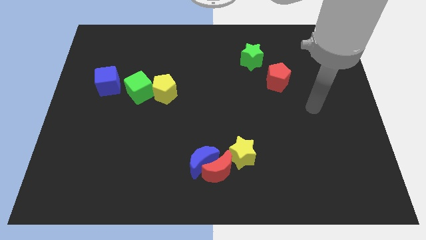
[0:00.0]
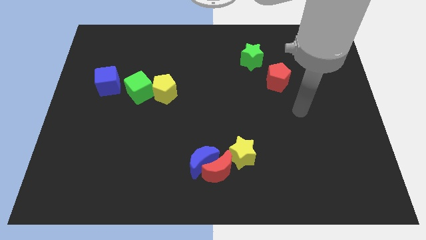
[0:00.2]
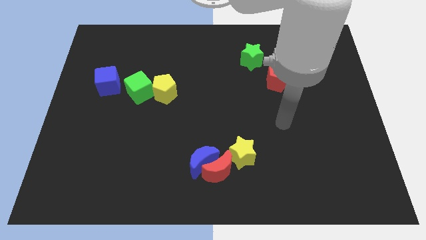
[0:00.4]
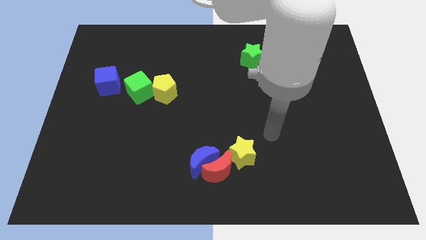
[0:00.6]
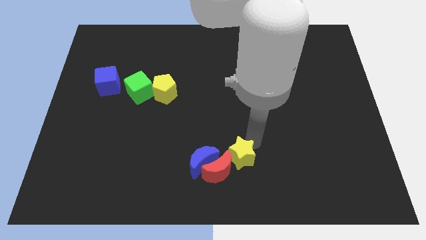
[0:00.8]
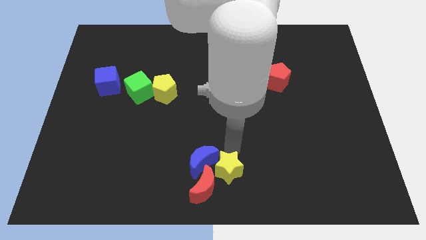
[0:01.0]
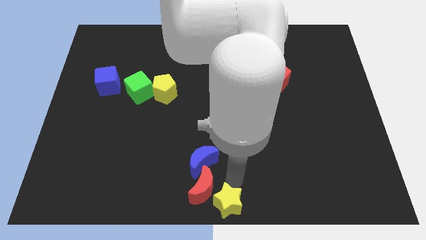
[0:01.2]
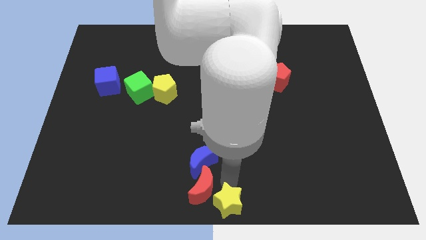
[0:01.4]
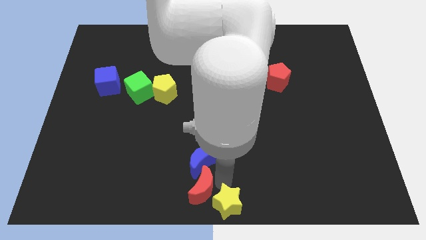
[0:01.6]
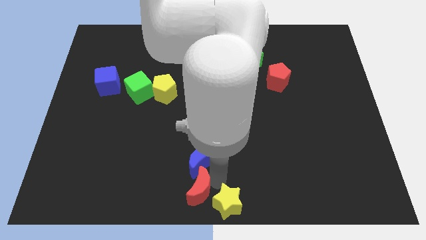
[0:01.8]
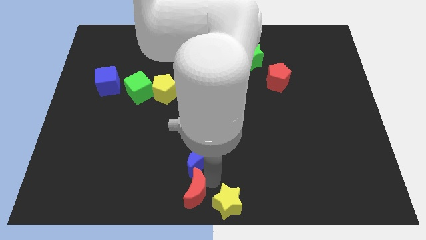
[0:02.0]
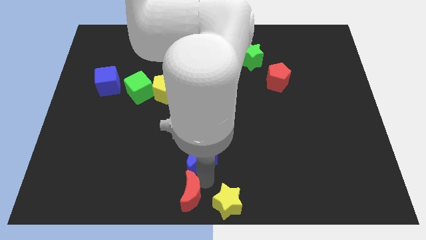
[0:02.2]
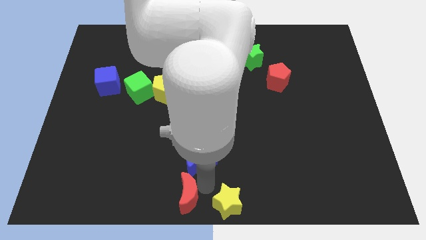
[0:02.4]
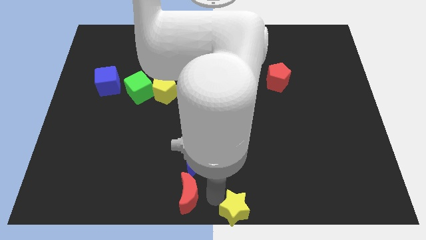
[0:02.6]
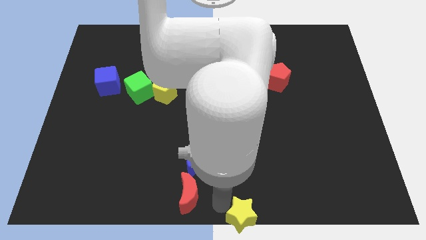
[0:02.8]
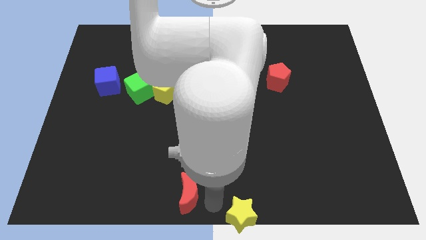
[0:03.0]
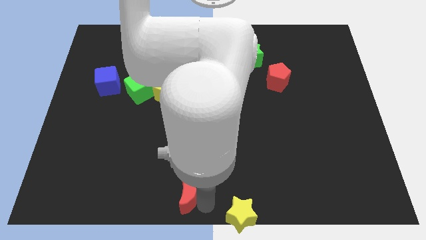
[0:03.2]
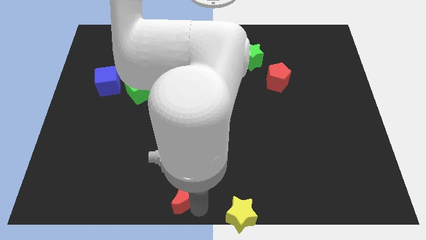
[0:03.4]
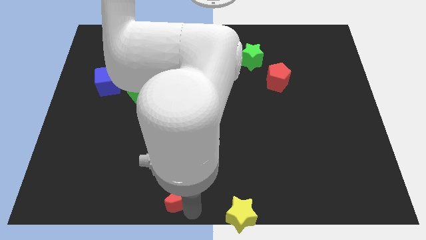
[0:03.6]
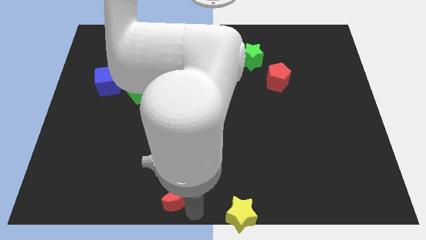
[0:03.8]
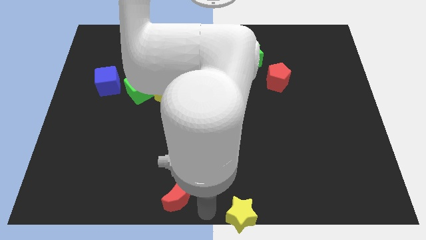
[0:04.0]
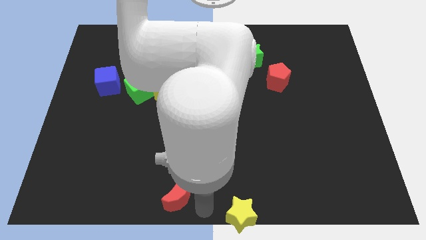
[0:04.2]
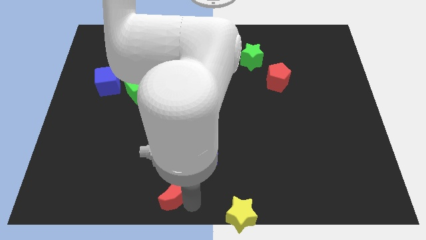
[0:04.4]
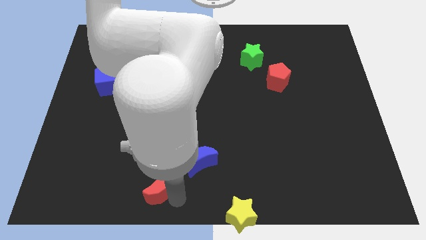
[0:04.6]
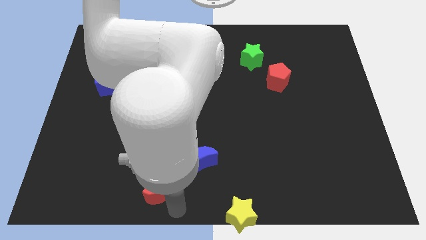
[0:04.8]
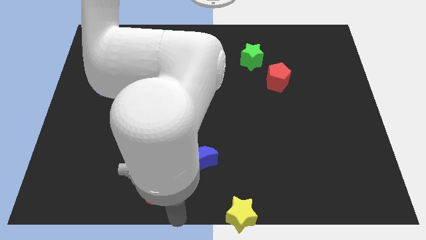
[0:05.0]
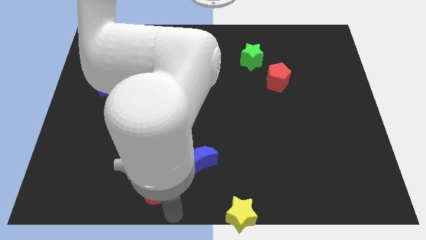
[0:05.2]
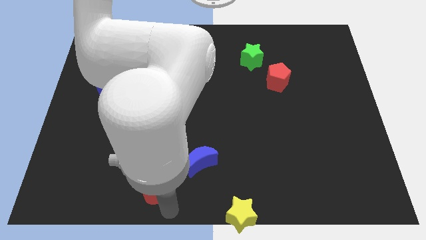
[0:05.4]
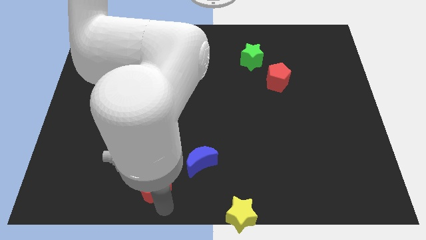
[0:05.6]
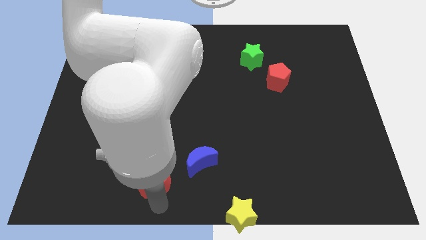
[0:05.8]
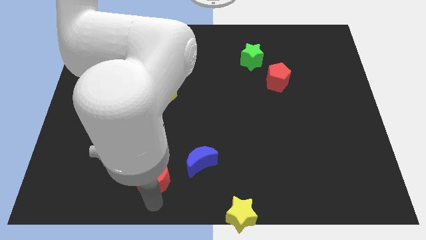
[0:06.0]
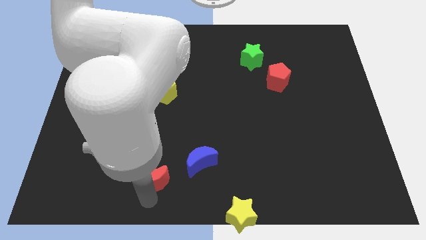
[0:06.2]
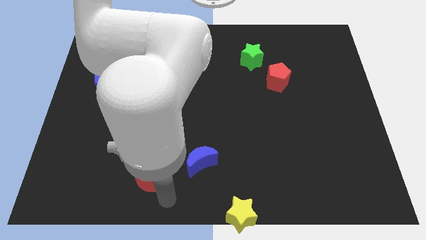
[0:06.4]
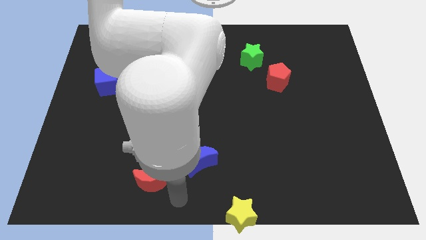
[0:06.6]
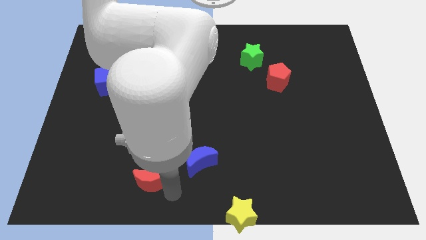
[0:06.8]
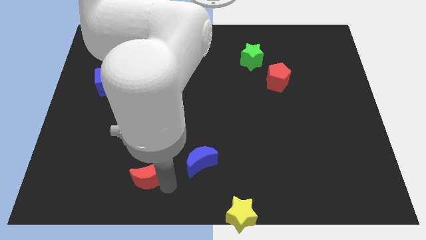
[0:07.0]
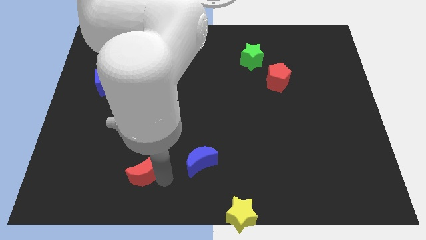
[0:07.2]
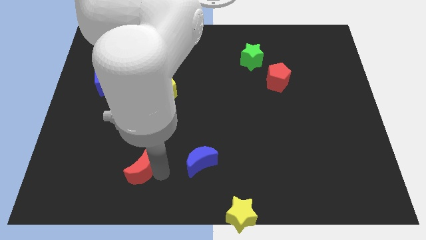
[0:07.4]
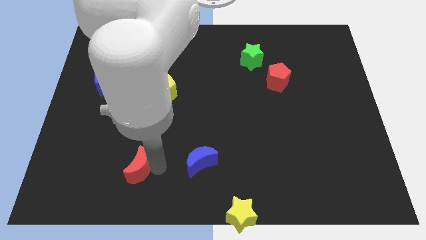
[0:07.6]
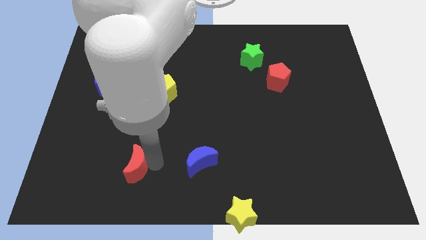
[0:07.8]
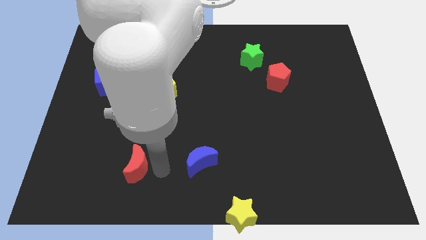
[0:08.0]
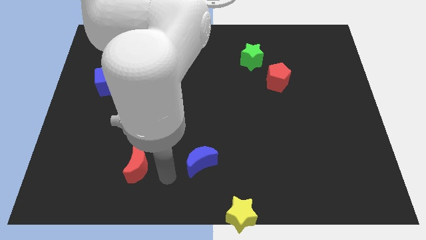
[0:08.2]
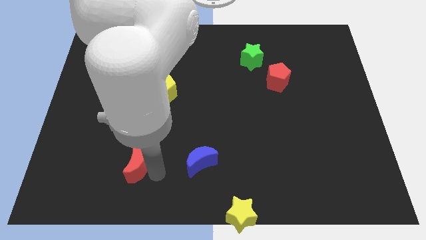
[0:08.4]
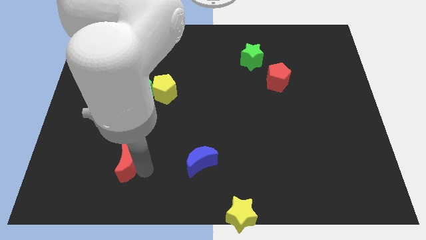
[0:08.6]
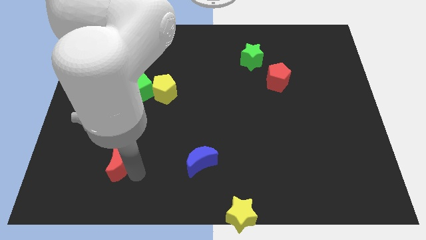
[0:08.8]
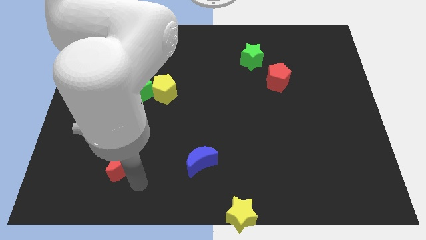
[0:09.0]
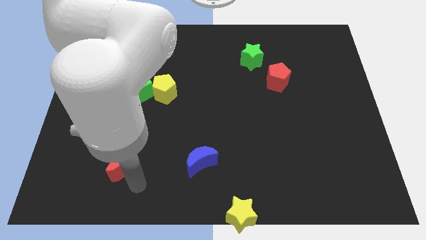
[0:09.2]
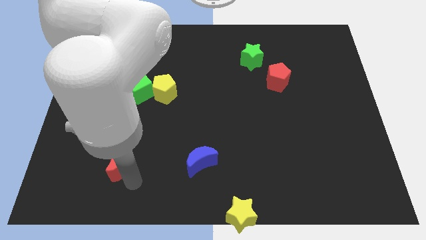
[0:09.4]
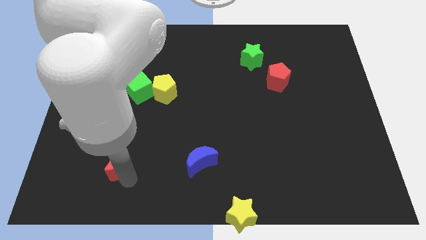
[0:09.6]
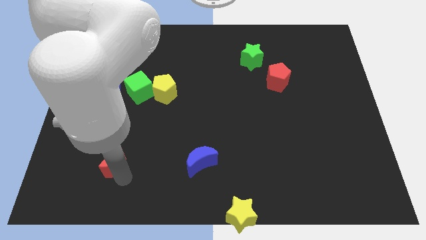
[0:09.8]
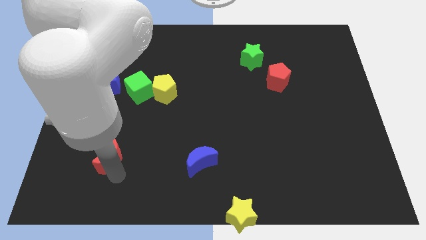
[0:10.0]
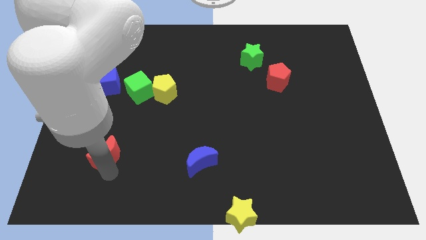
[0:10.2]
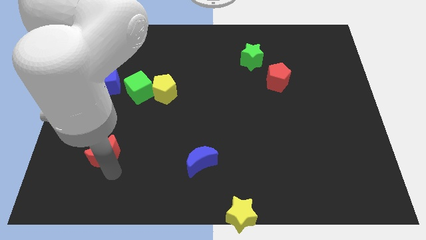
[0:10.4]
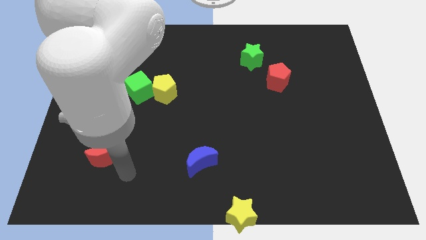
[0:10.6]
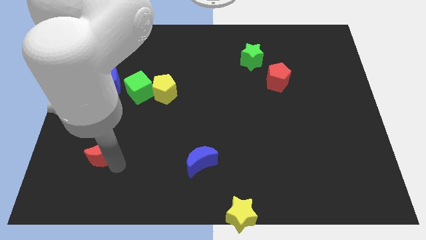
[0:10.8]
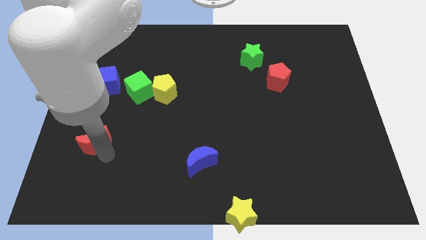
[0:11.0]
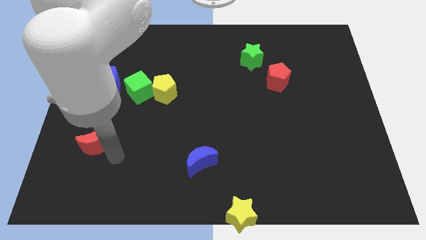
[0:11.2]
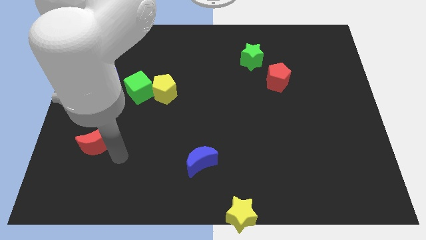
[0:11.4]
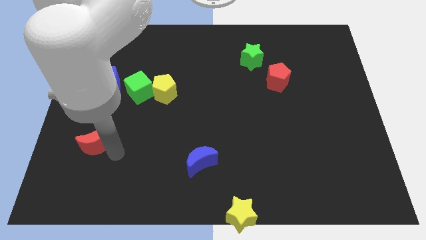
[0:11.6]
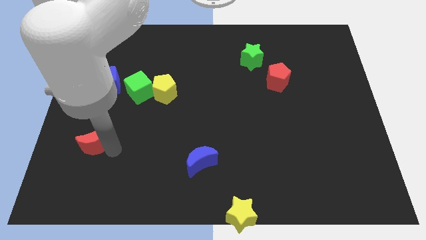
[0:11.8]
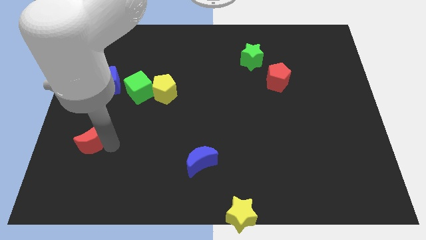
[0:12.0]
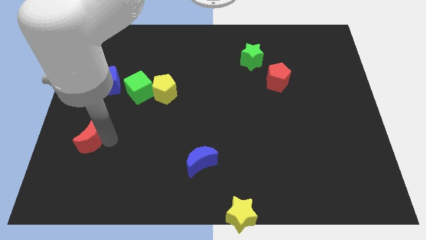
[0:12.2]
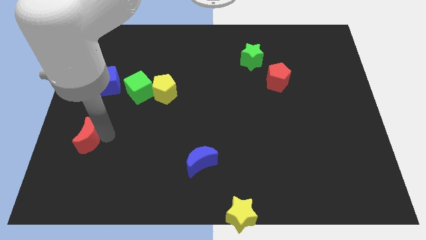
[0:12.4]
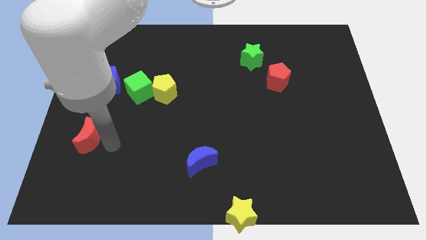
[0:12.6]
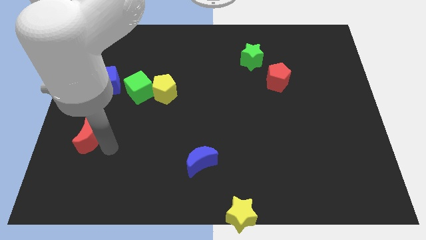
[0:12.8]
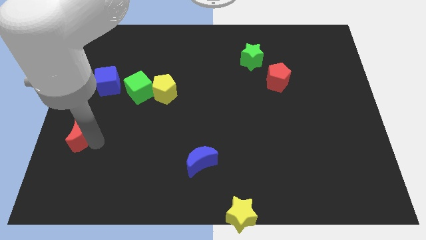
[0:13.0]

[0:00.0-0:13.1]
push the red moon to the left side

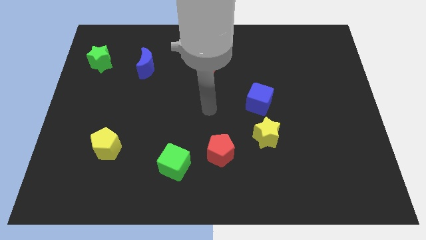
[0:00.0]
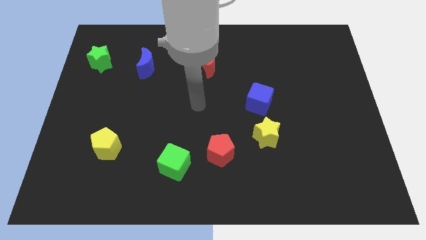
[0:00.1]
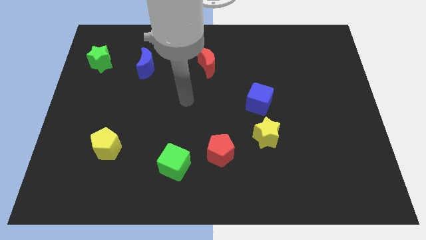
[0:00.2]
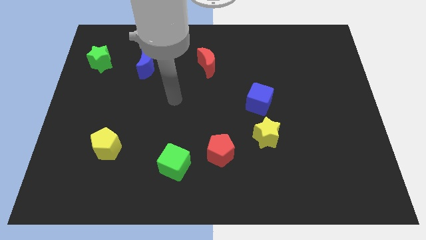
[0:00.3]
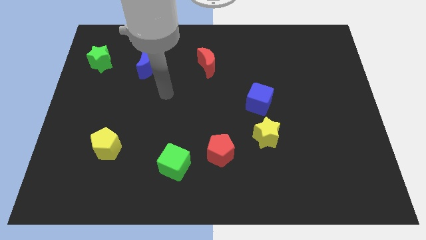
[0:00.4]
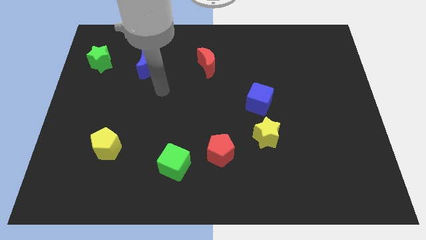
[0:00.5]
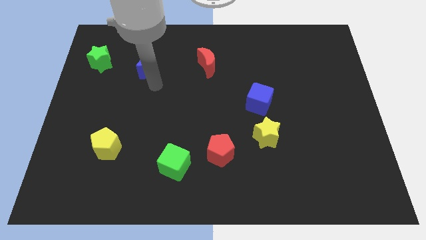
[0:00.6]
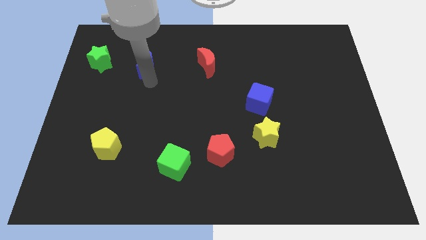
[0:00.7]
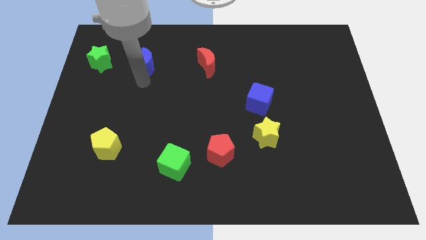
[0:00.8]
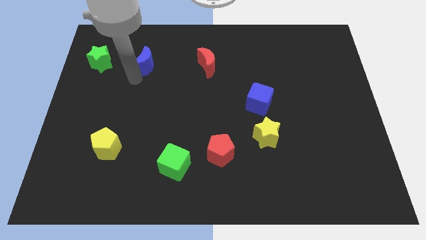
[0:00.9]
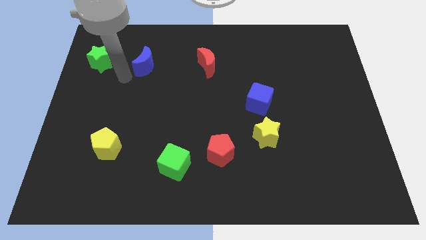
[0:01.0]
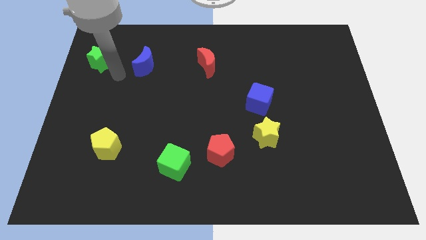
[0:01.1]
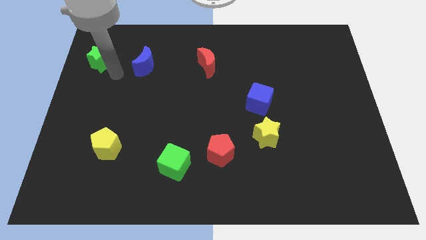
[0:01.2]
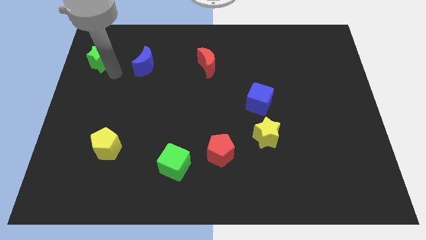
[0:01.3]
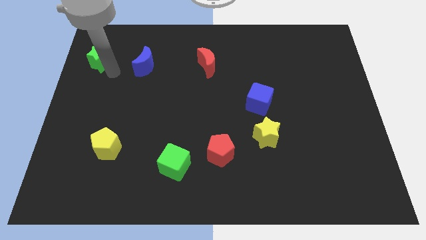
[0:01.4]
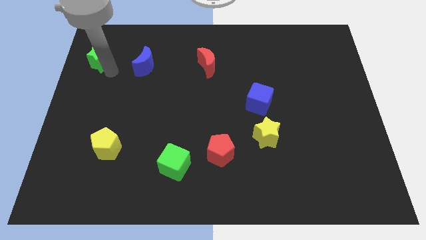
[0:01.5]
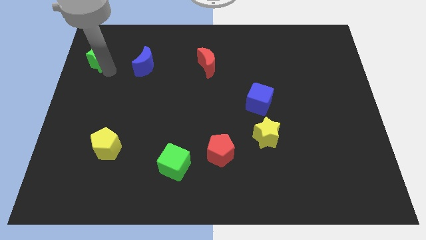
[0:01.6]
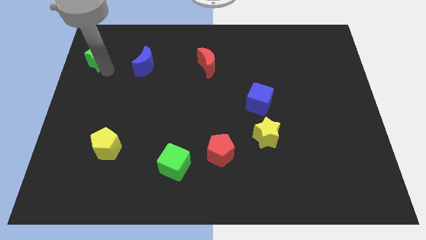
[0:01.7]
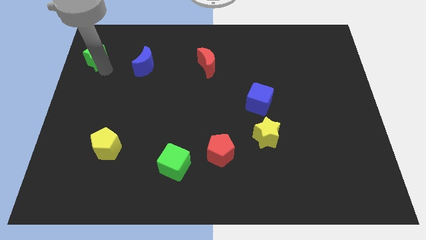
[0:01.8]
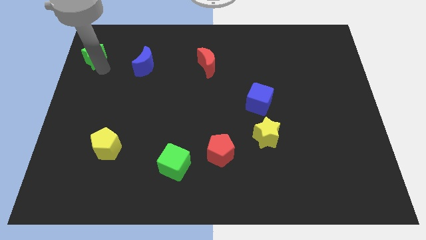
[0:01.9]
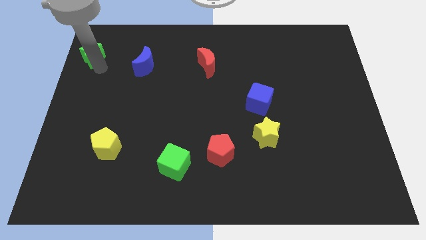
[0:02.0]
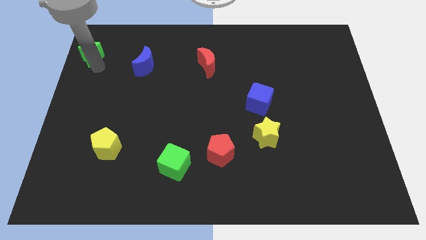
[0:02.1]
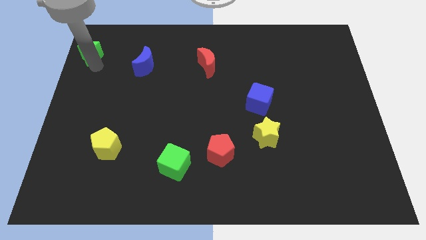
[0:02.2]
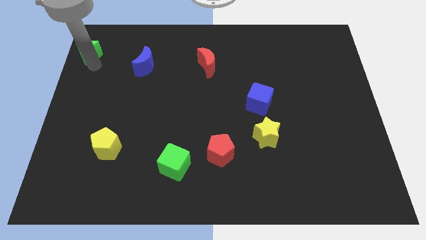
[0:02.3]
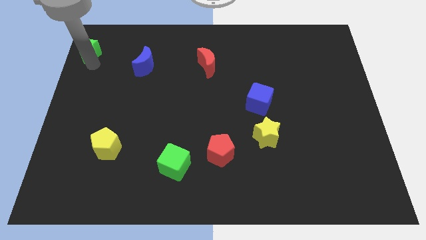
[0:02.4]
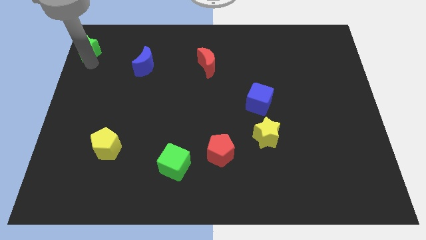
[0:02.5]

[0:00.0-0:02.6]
slide the green star to the top left corner
